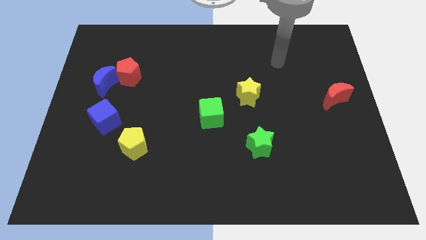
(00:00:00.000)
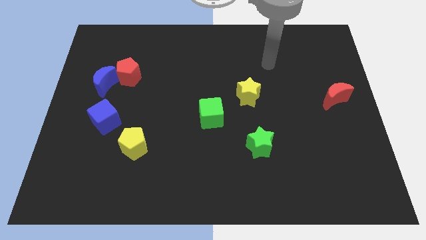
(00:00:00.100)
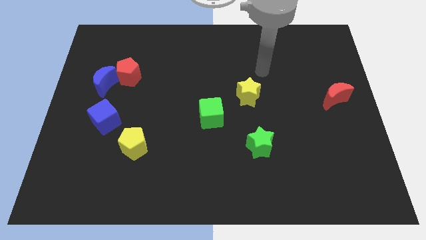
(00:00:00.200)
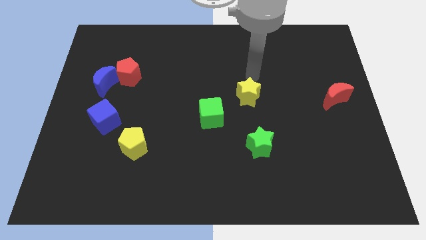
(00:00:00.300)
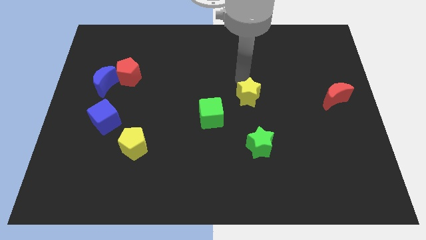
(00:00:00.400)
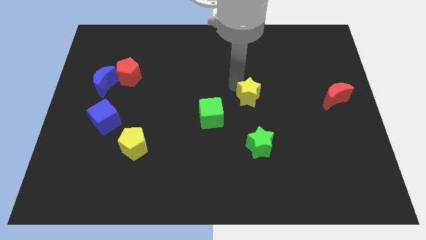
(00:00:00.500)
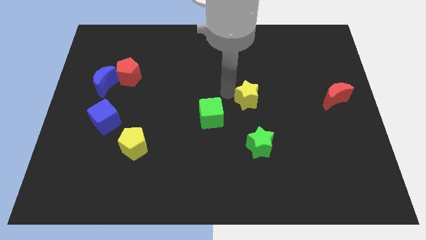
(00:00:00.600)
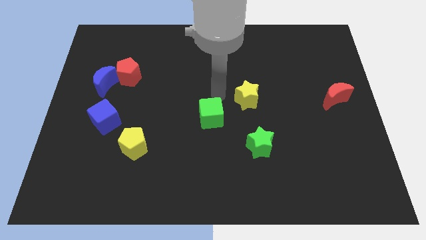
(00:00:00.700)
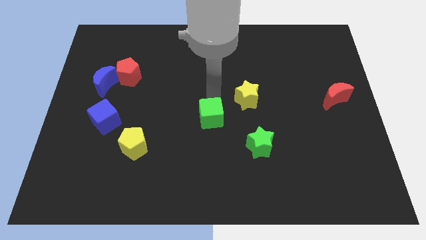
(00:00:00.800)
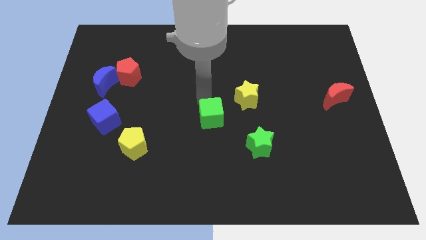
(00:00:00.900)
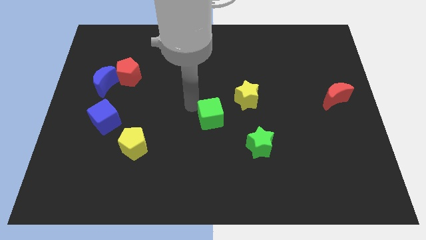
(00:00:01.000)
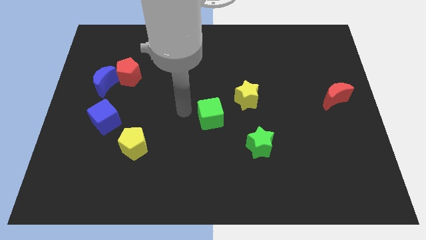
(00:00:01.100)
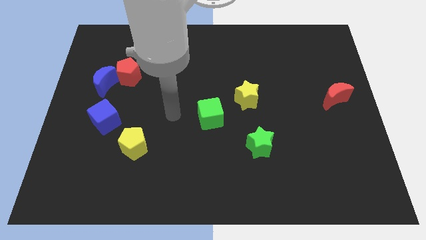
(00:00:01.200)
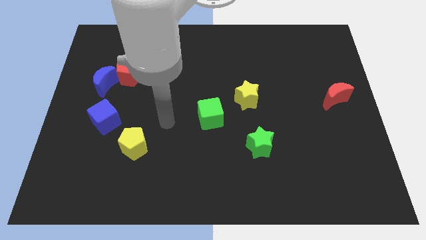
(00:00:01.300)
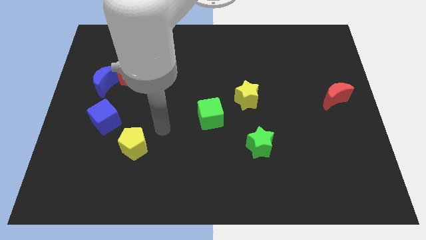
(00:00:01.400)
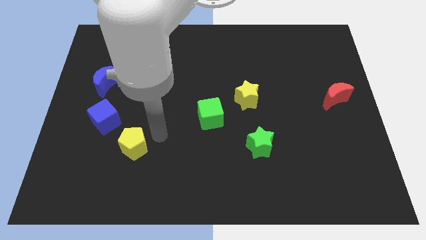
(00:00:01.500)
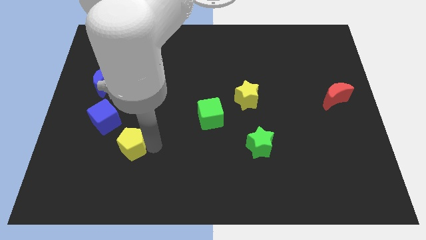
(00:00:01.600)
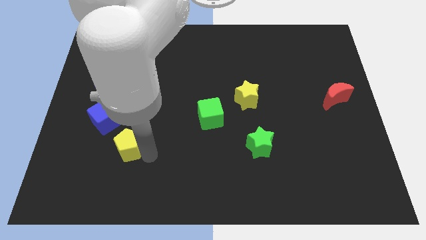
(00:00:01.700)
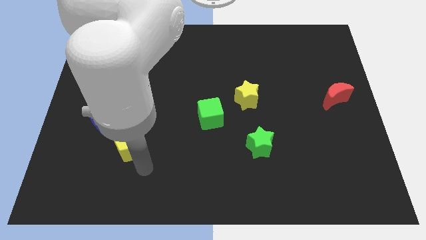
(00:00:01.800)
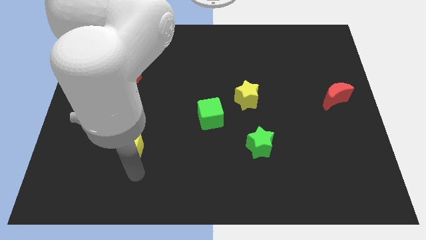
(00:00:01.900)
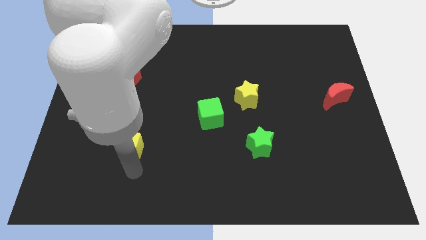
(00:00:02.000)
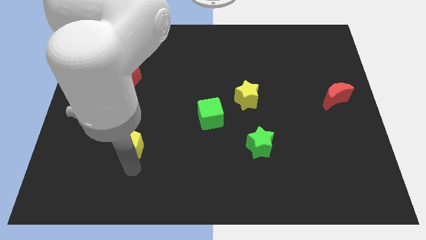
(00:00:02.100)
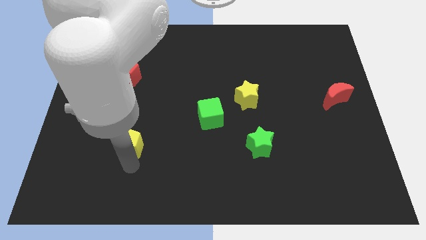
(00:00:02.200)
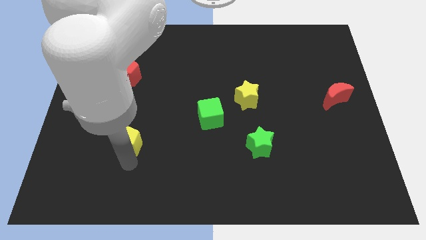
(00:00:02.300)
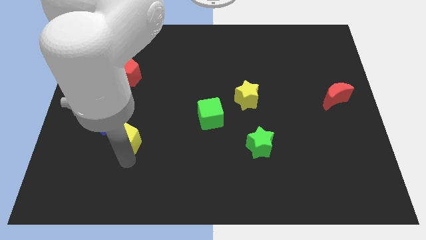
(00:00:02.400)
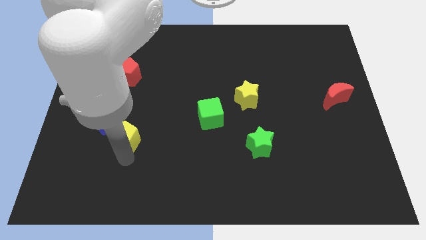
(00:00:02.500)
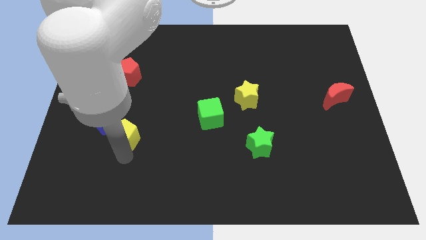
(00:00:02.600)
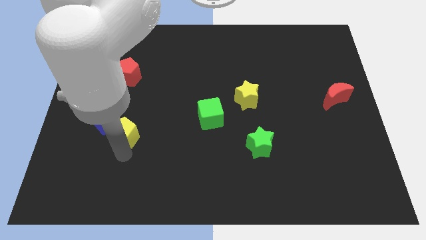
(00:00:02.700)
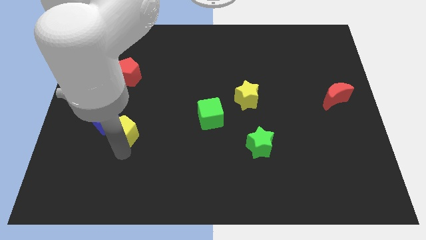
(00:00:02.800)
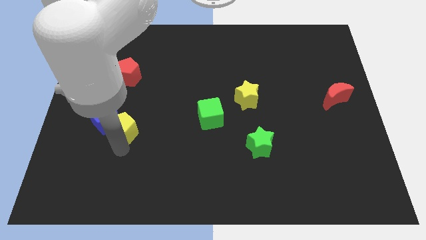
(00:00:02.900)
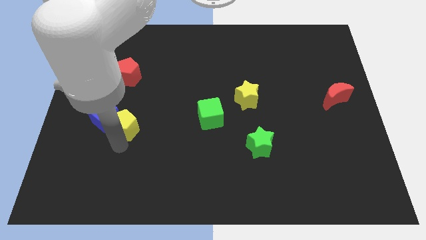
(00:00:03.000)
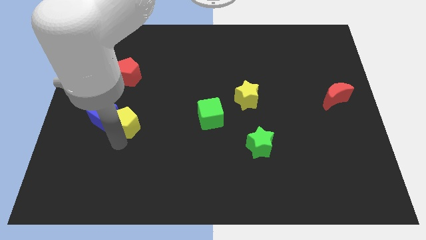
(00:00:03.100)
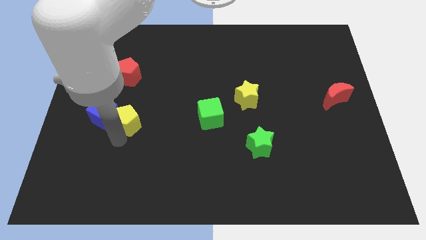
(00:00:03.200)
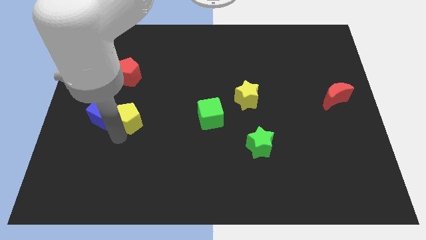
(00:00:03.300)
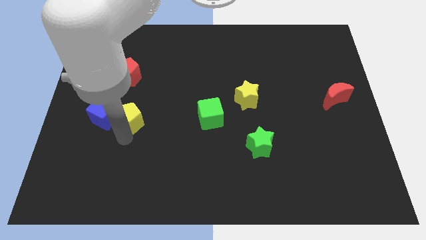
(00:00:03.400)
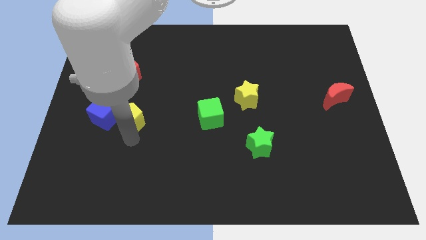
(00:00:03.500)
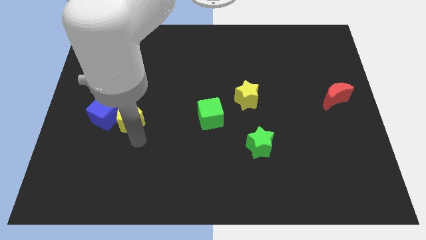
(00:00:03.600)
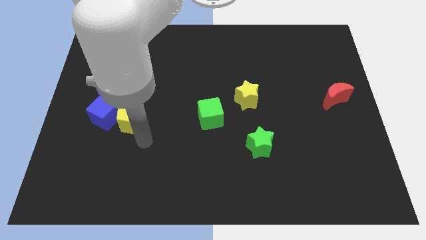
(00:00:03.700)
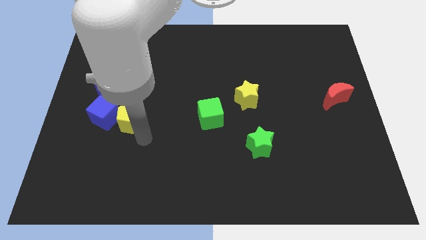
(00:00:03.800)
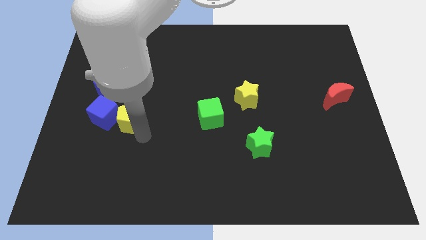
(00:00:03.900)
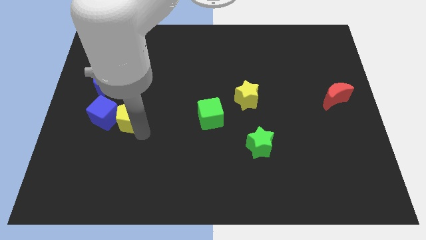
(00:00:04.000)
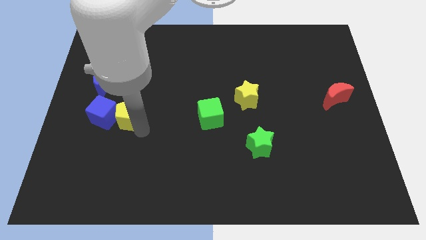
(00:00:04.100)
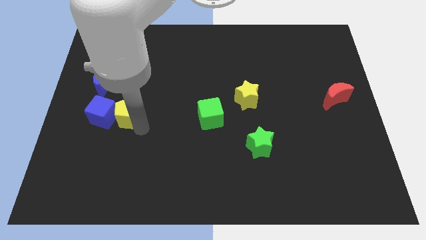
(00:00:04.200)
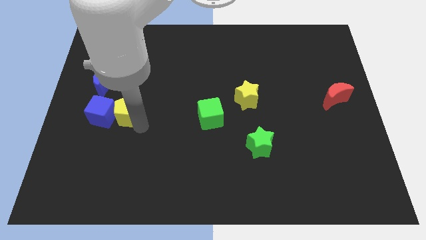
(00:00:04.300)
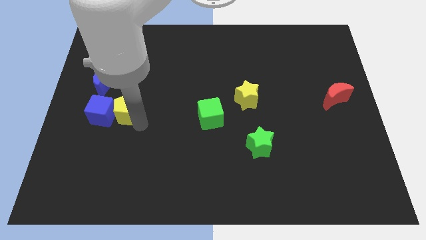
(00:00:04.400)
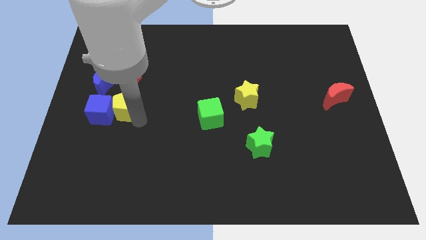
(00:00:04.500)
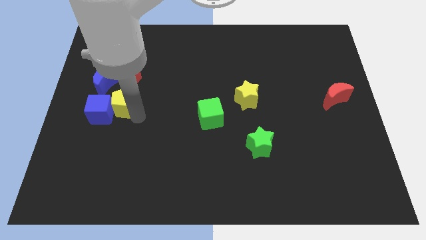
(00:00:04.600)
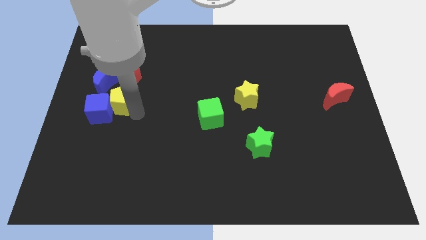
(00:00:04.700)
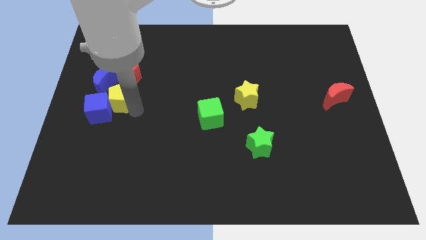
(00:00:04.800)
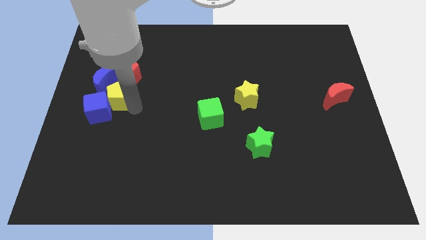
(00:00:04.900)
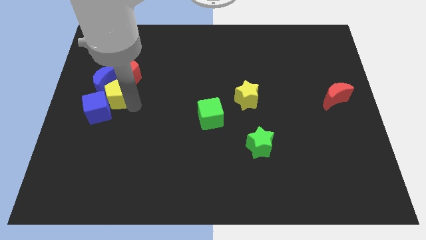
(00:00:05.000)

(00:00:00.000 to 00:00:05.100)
slide the yellow pentagon next to the blue moon

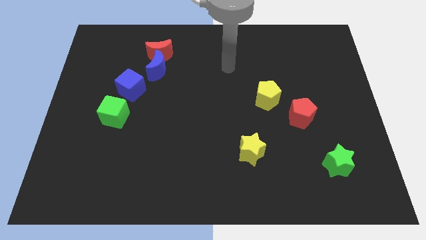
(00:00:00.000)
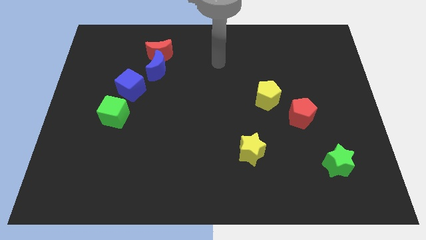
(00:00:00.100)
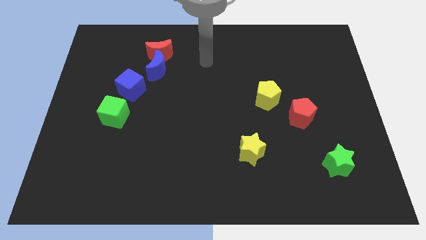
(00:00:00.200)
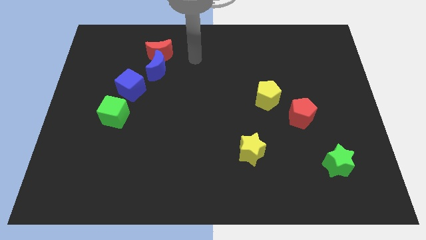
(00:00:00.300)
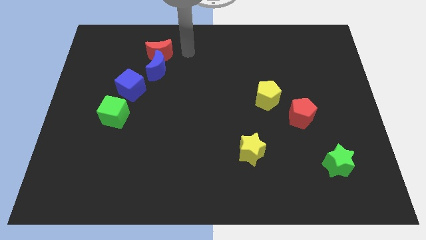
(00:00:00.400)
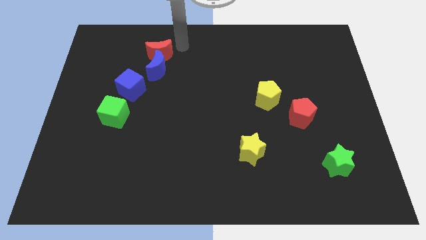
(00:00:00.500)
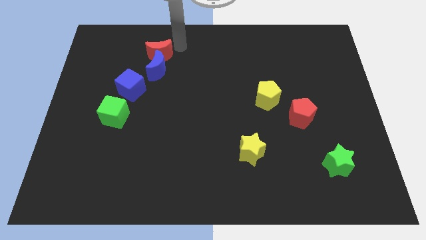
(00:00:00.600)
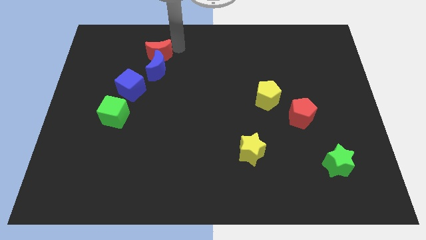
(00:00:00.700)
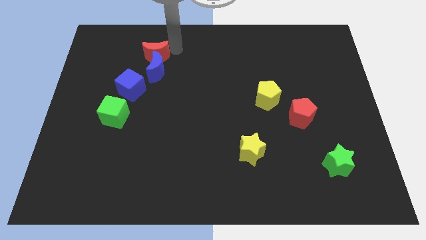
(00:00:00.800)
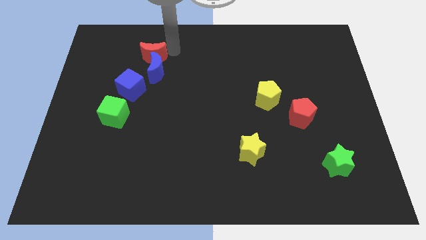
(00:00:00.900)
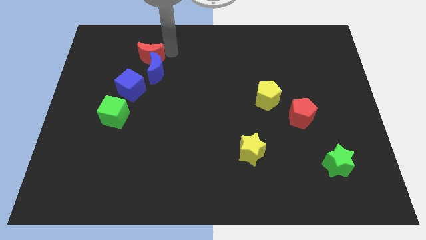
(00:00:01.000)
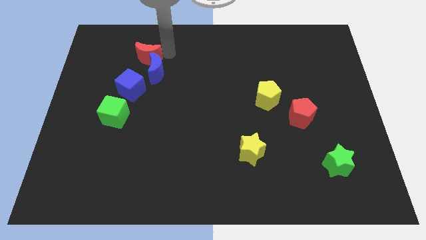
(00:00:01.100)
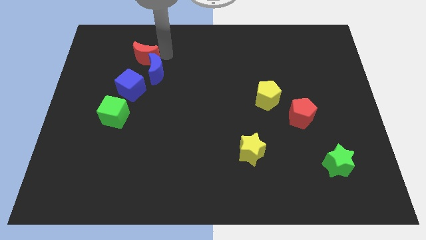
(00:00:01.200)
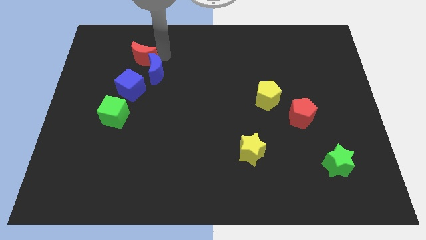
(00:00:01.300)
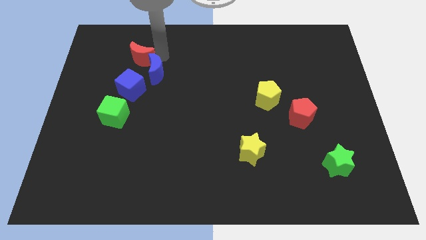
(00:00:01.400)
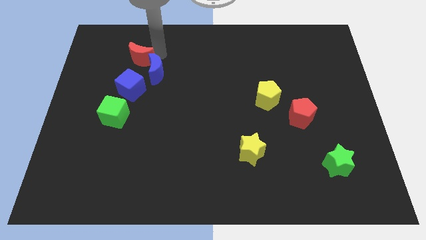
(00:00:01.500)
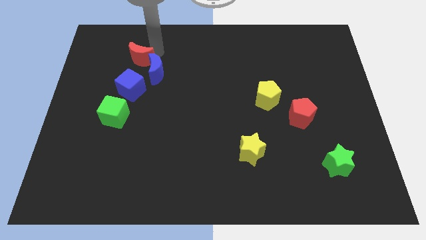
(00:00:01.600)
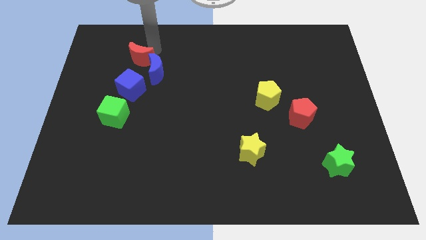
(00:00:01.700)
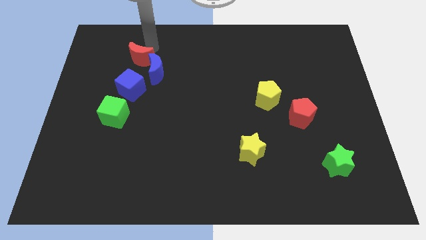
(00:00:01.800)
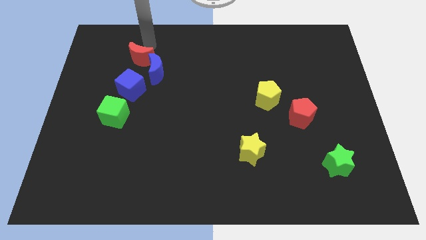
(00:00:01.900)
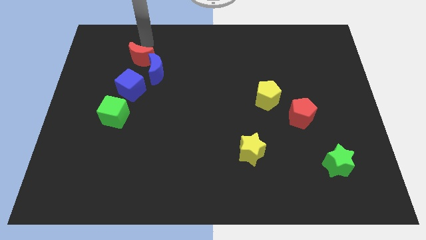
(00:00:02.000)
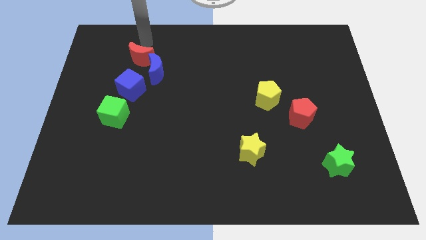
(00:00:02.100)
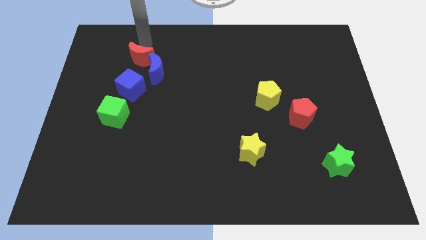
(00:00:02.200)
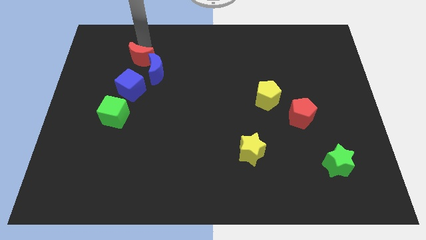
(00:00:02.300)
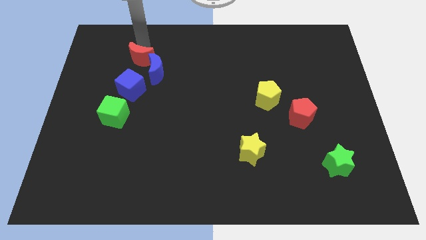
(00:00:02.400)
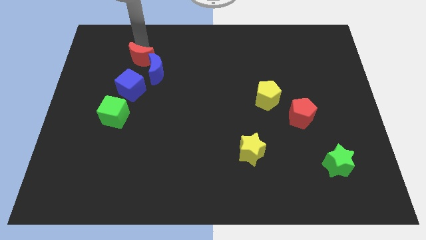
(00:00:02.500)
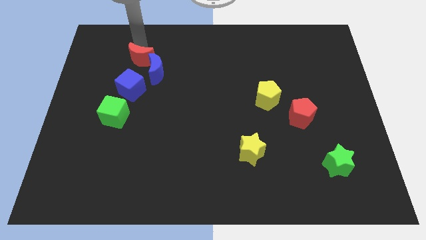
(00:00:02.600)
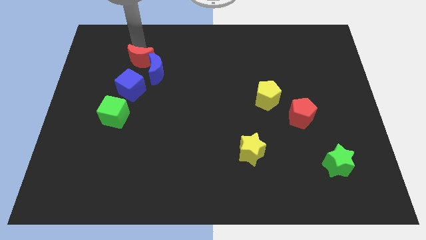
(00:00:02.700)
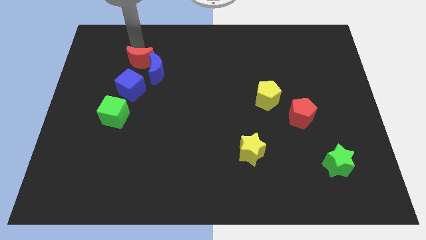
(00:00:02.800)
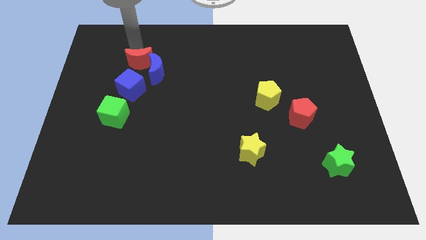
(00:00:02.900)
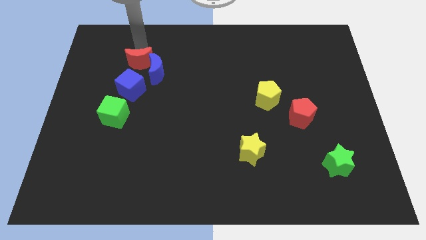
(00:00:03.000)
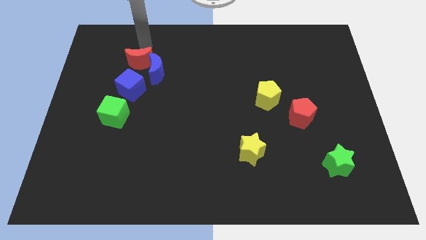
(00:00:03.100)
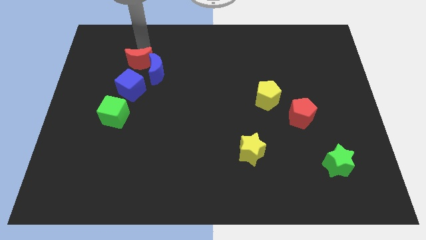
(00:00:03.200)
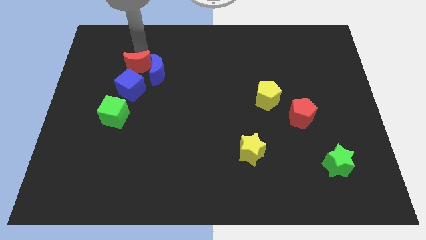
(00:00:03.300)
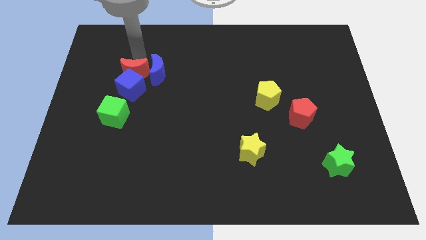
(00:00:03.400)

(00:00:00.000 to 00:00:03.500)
push the red moon to the blue cube
